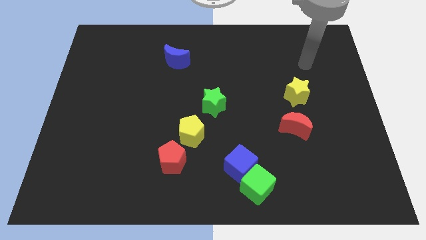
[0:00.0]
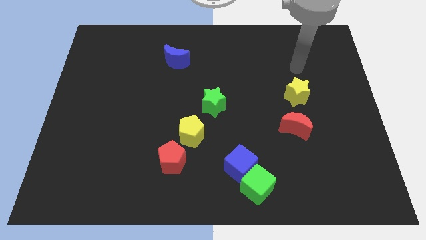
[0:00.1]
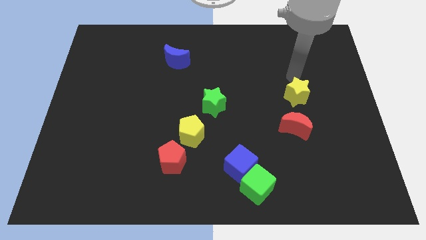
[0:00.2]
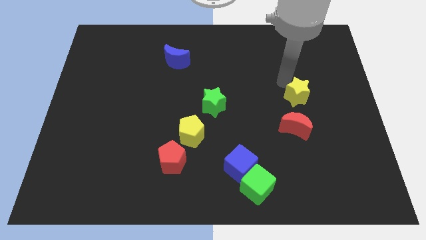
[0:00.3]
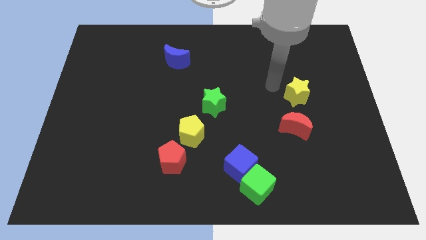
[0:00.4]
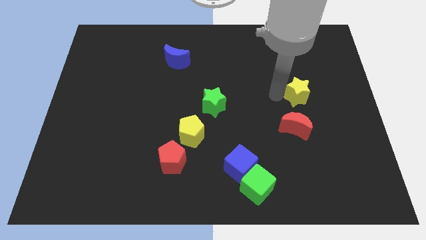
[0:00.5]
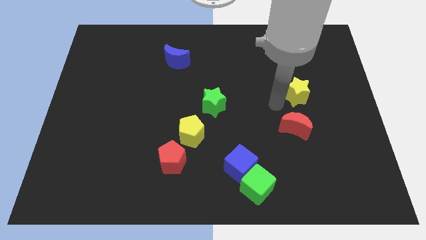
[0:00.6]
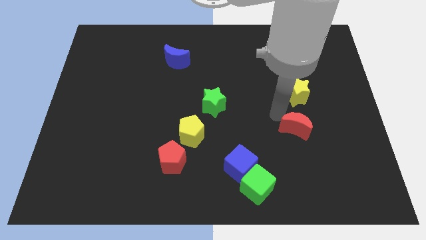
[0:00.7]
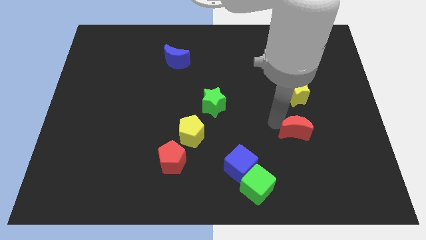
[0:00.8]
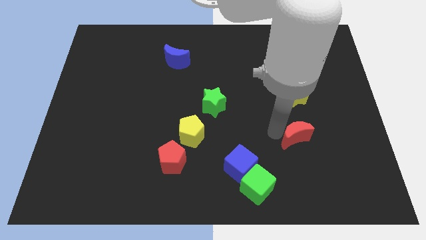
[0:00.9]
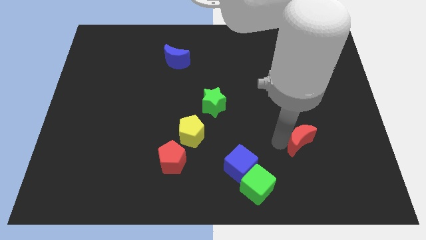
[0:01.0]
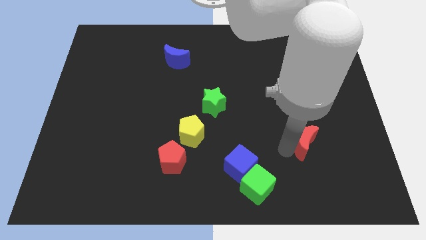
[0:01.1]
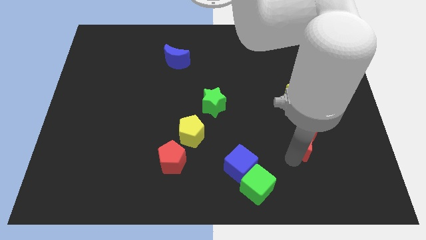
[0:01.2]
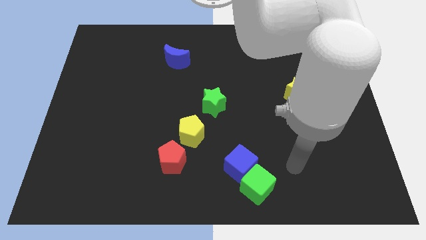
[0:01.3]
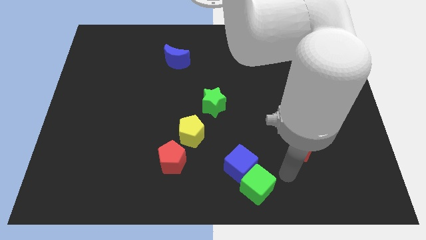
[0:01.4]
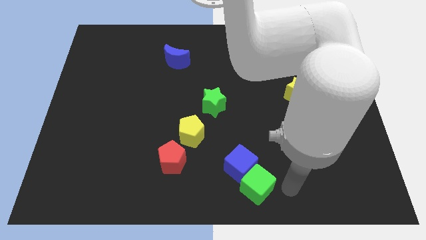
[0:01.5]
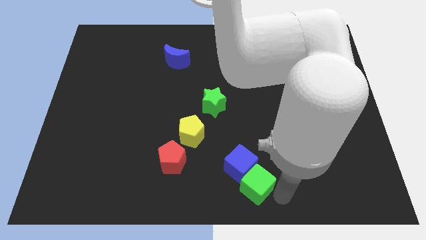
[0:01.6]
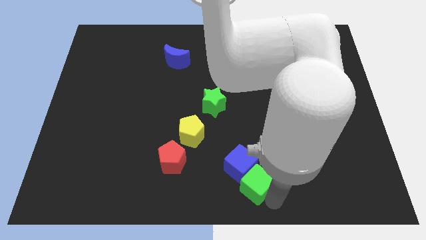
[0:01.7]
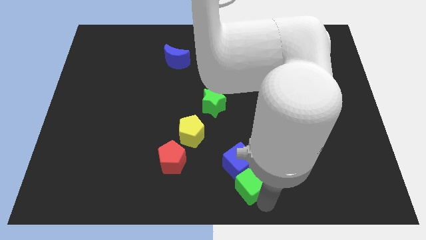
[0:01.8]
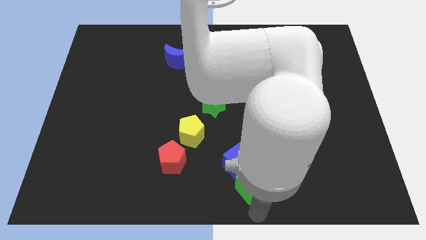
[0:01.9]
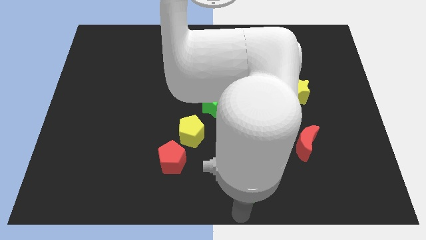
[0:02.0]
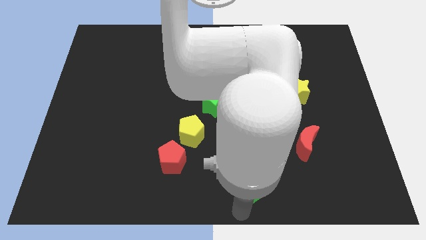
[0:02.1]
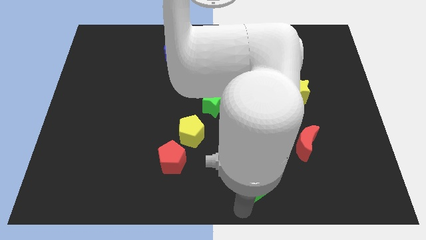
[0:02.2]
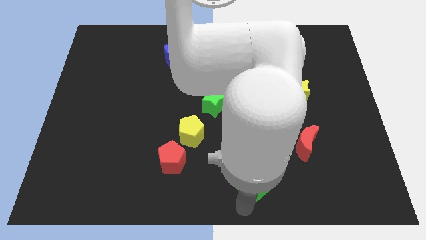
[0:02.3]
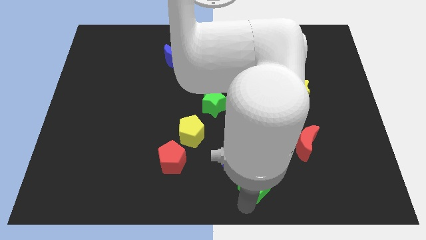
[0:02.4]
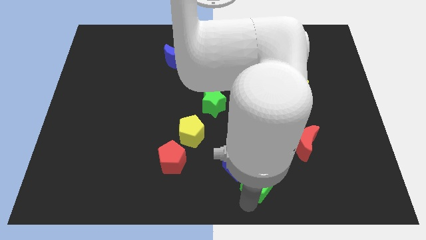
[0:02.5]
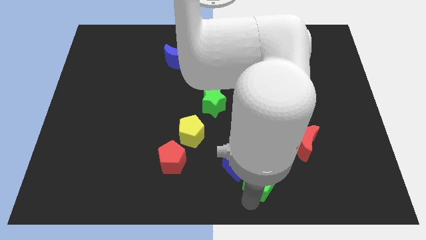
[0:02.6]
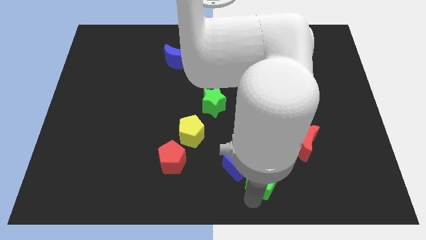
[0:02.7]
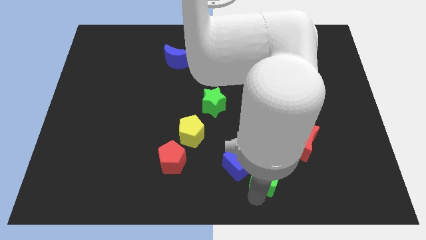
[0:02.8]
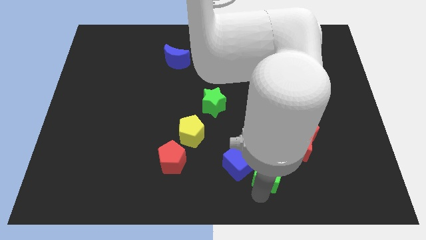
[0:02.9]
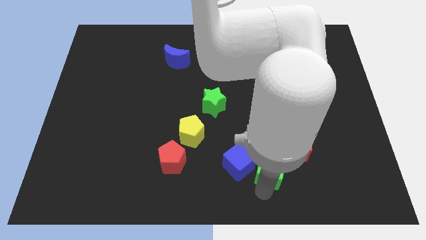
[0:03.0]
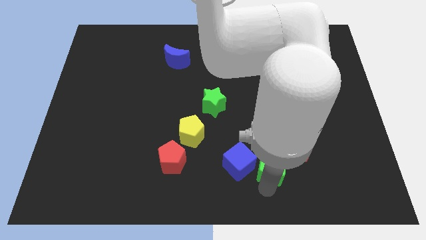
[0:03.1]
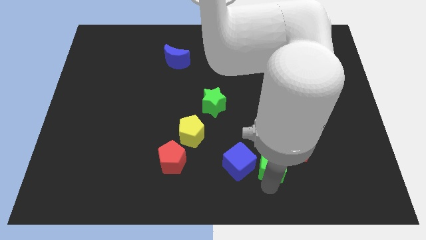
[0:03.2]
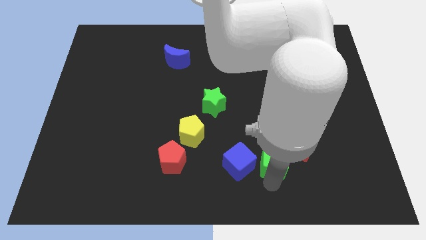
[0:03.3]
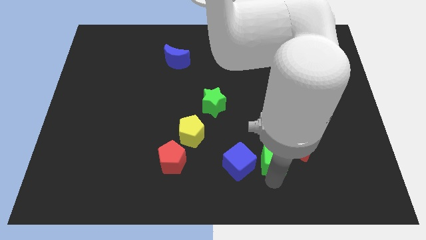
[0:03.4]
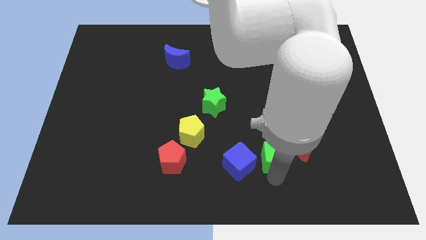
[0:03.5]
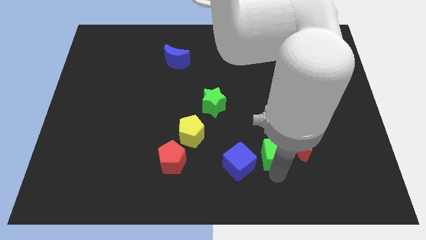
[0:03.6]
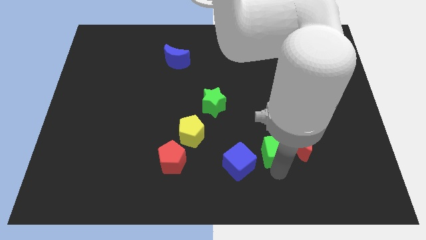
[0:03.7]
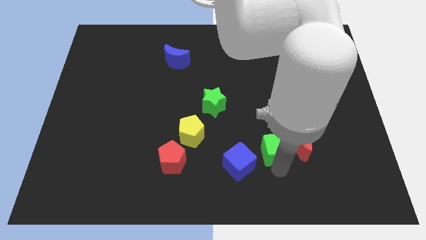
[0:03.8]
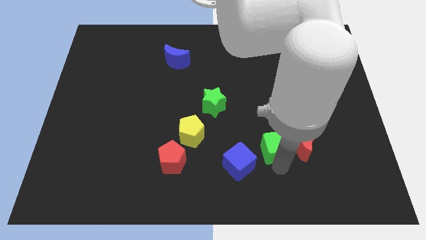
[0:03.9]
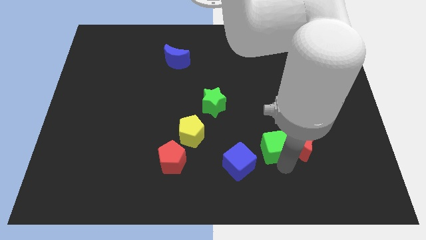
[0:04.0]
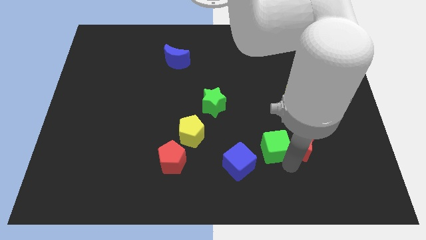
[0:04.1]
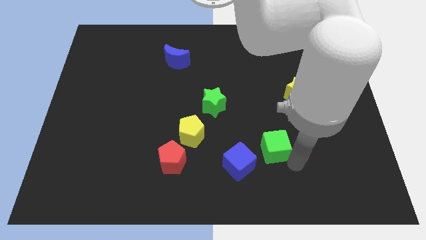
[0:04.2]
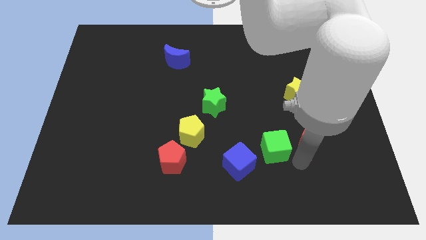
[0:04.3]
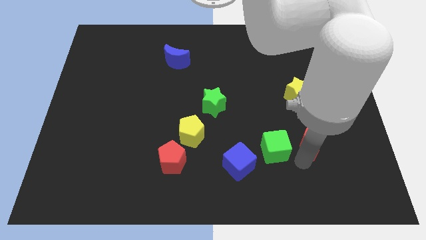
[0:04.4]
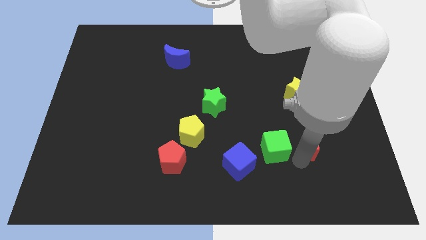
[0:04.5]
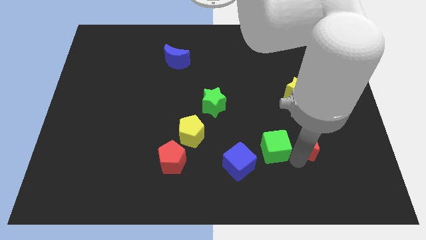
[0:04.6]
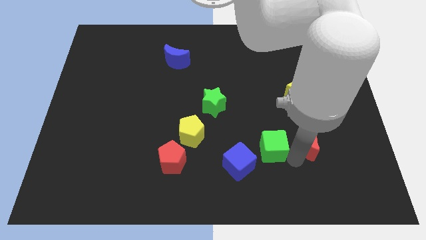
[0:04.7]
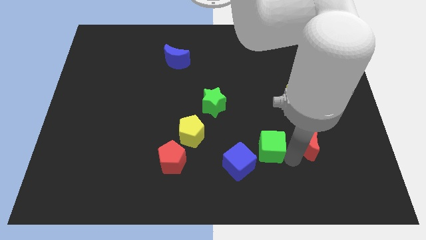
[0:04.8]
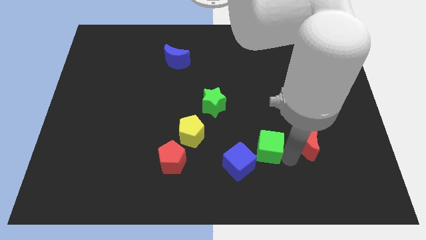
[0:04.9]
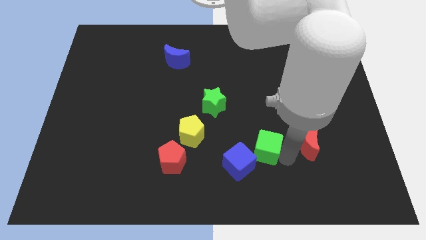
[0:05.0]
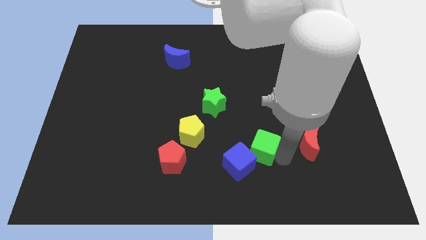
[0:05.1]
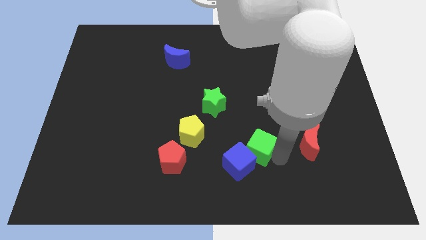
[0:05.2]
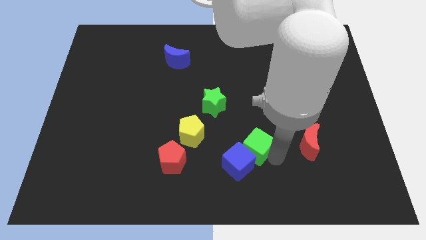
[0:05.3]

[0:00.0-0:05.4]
put the green cube right of the yellow pentagon

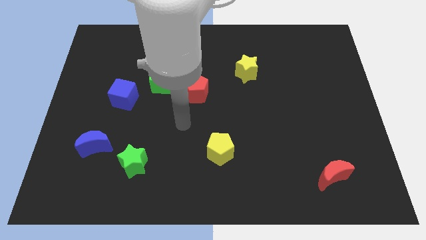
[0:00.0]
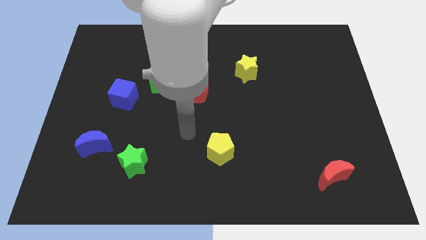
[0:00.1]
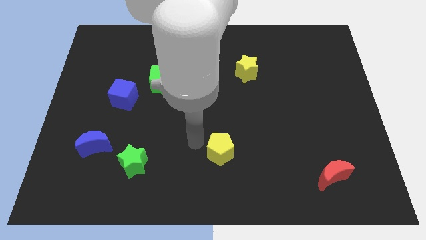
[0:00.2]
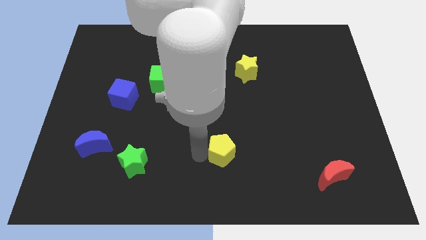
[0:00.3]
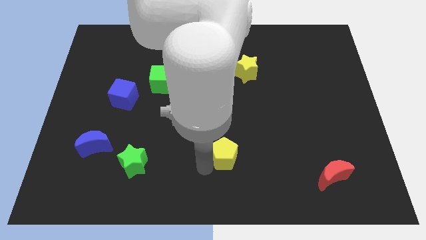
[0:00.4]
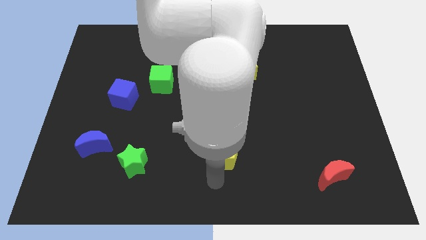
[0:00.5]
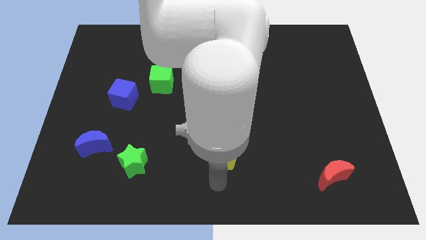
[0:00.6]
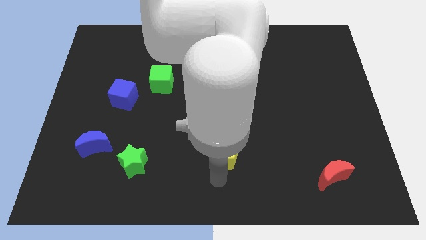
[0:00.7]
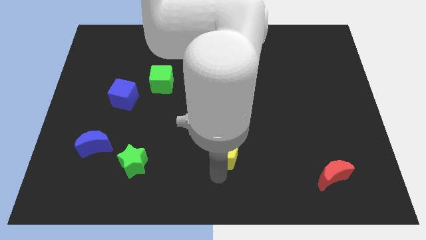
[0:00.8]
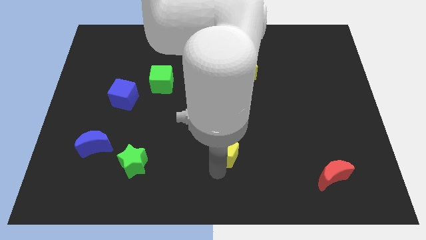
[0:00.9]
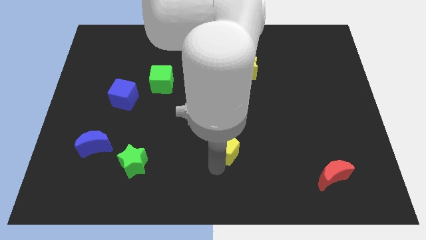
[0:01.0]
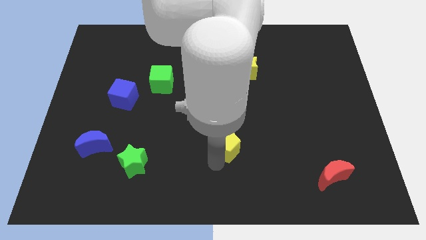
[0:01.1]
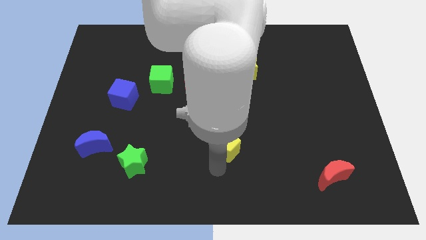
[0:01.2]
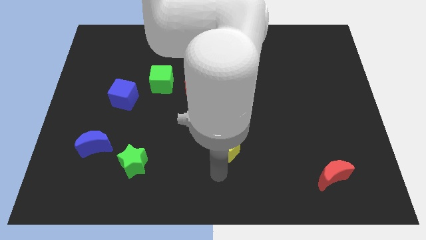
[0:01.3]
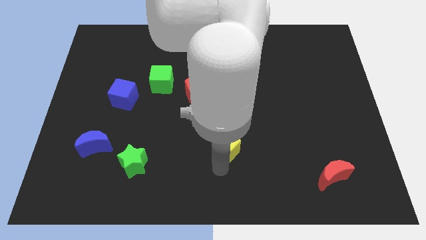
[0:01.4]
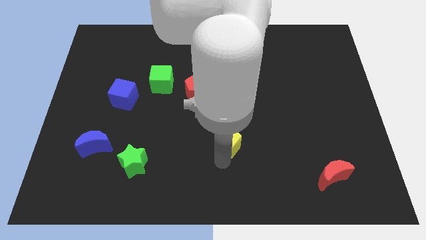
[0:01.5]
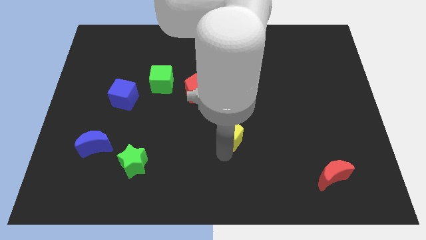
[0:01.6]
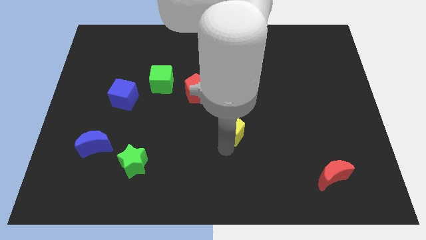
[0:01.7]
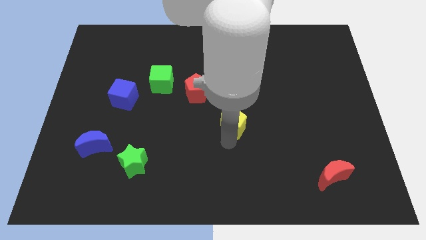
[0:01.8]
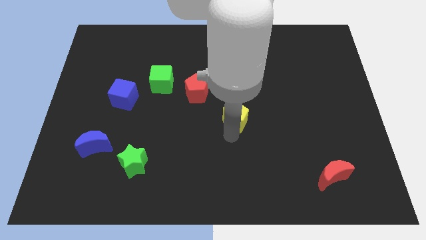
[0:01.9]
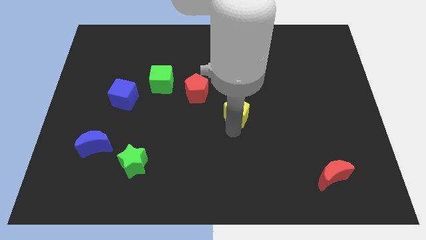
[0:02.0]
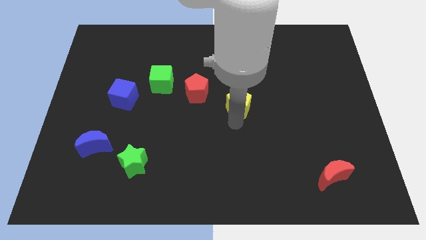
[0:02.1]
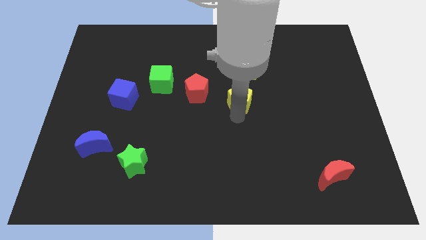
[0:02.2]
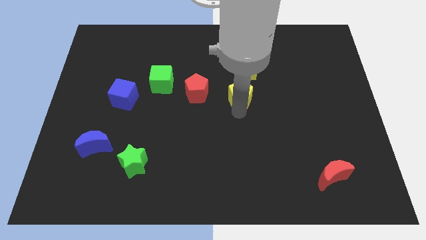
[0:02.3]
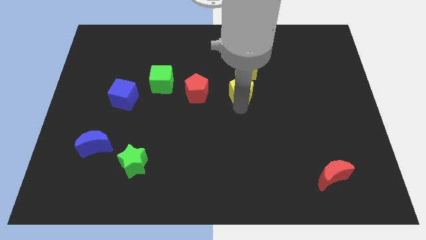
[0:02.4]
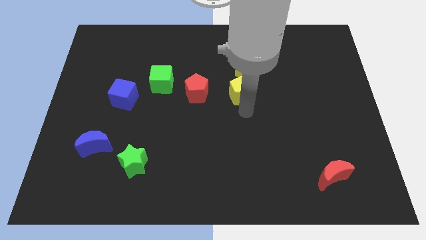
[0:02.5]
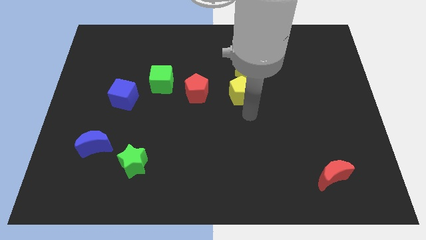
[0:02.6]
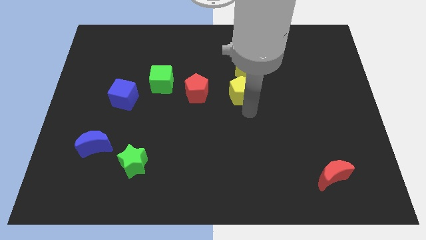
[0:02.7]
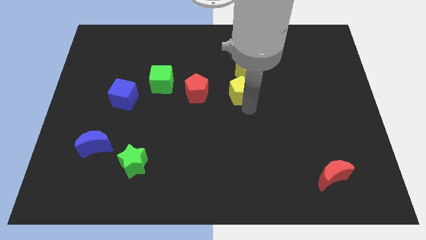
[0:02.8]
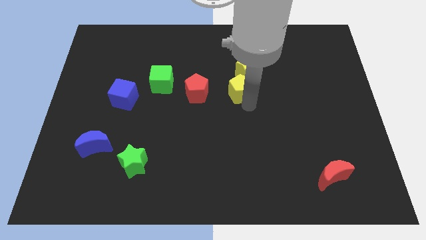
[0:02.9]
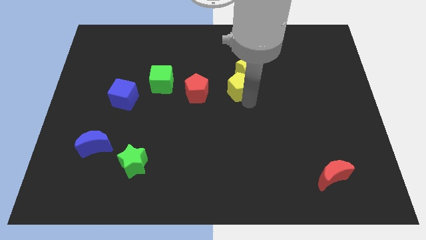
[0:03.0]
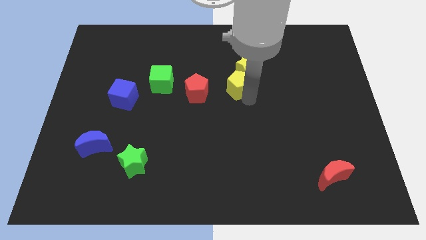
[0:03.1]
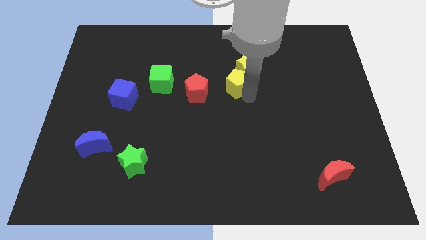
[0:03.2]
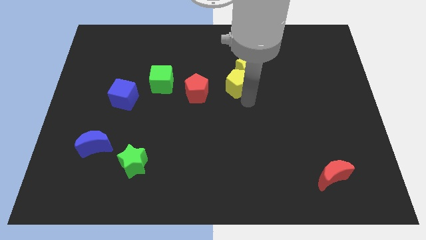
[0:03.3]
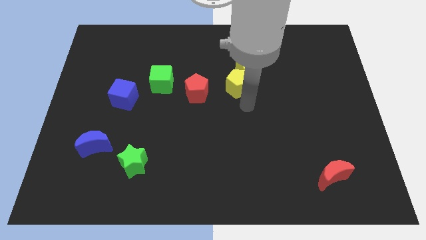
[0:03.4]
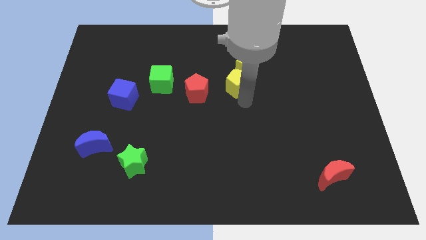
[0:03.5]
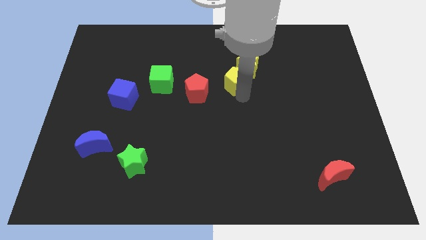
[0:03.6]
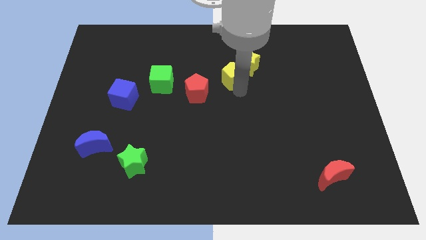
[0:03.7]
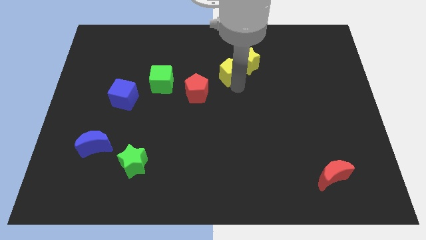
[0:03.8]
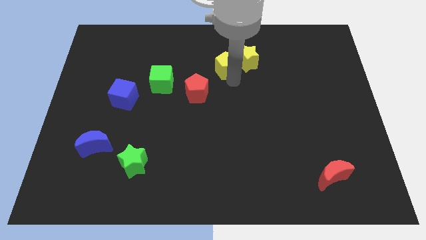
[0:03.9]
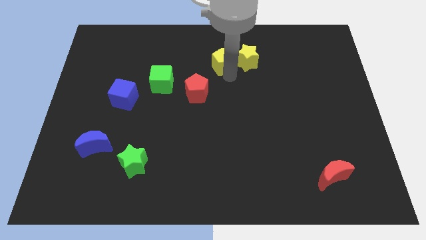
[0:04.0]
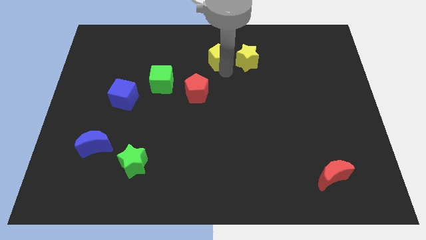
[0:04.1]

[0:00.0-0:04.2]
slide the yellow pentagon to the top left of the yellow star
